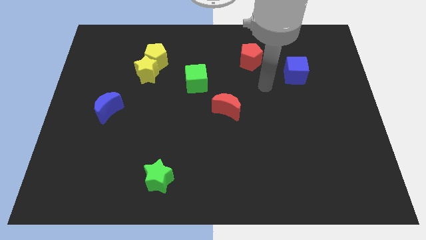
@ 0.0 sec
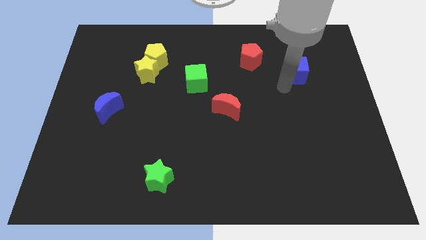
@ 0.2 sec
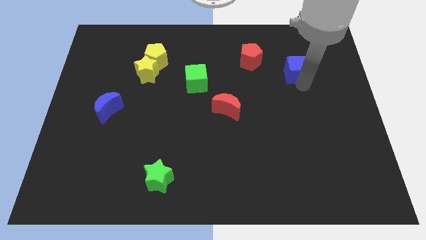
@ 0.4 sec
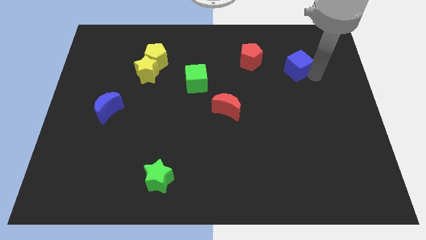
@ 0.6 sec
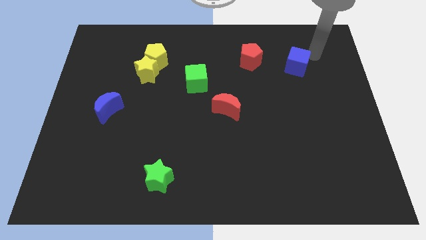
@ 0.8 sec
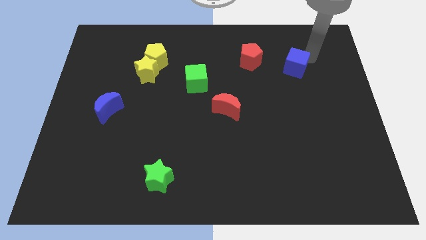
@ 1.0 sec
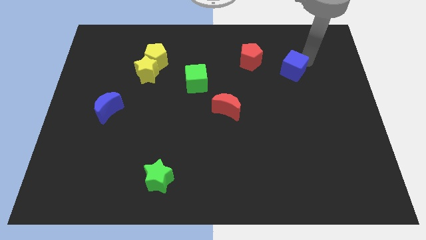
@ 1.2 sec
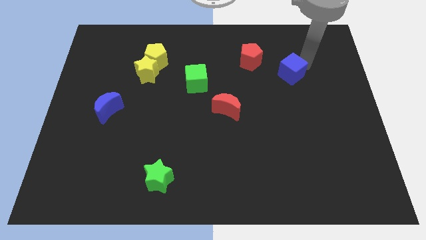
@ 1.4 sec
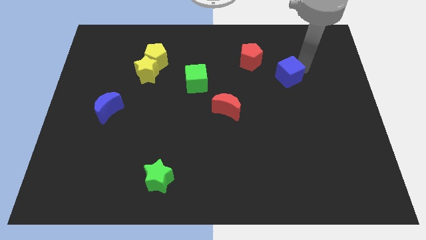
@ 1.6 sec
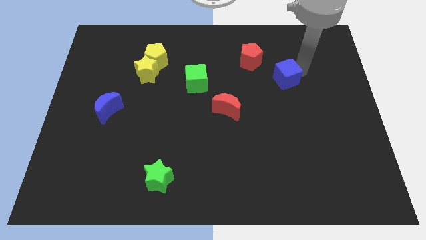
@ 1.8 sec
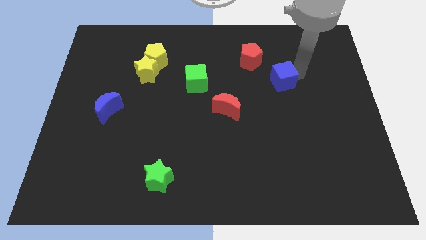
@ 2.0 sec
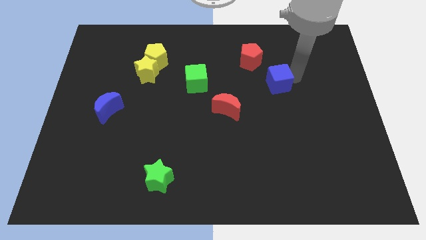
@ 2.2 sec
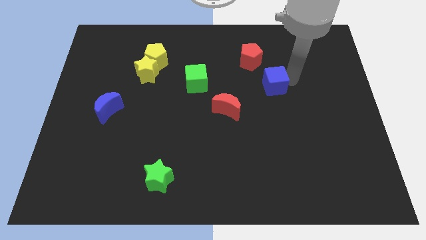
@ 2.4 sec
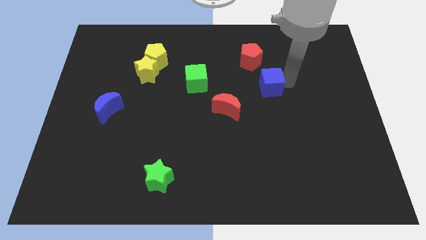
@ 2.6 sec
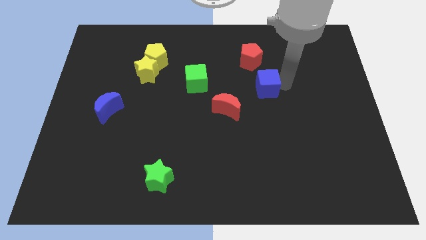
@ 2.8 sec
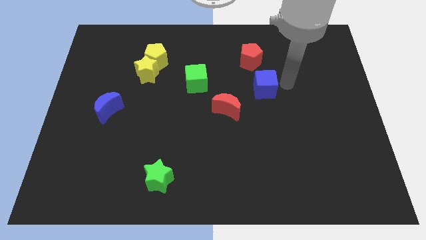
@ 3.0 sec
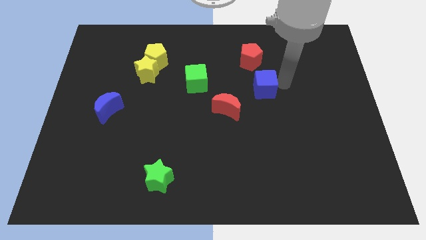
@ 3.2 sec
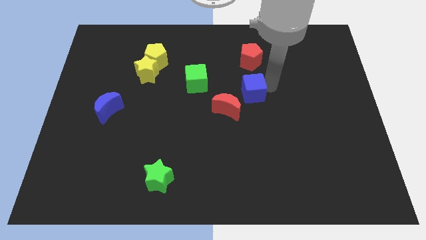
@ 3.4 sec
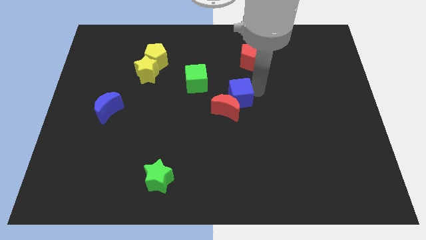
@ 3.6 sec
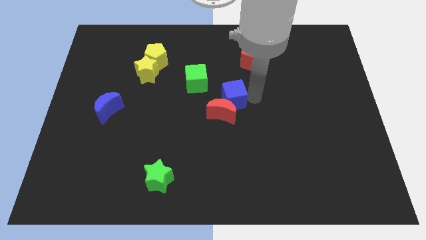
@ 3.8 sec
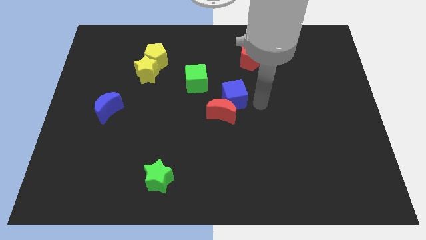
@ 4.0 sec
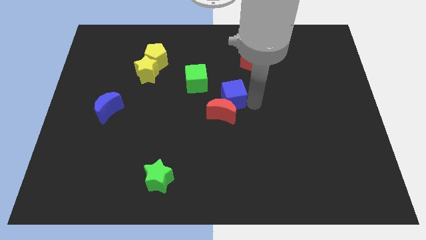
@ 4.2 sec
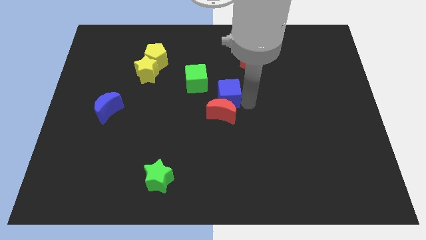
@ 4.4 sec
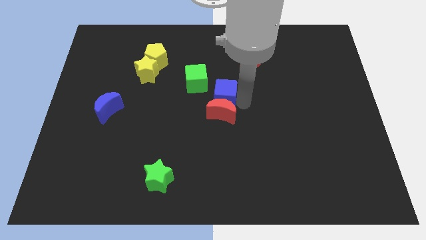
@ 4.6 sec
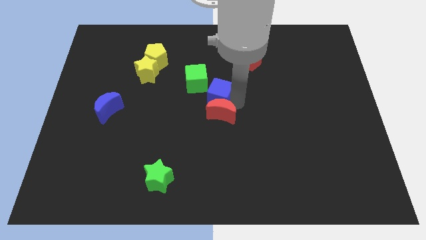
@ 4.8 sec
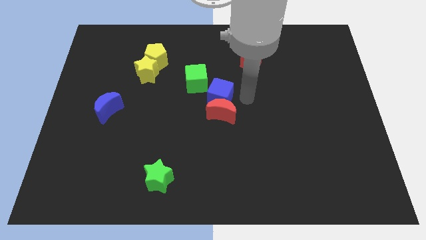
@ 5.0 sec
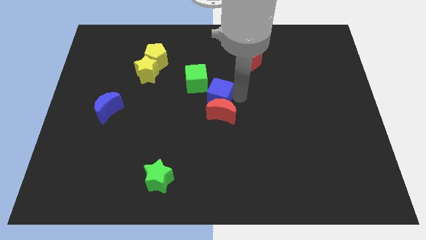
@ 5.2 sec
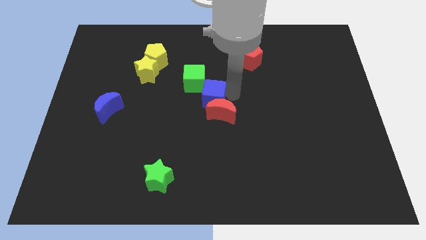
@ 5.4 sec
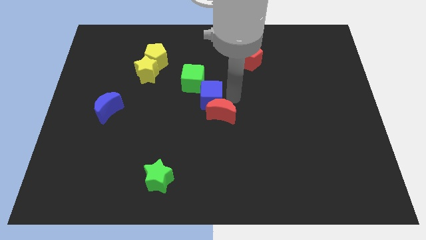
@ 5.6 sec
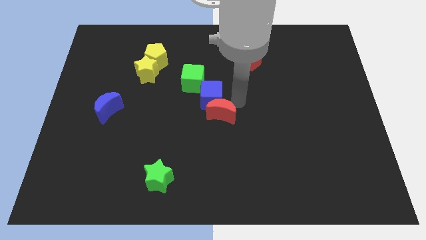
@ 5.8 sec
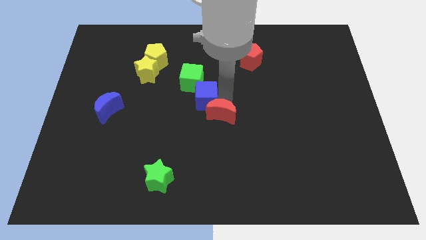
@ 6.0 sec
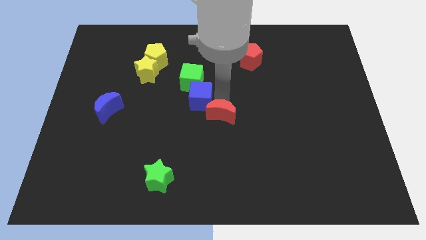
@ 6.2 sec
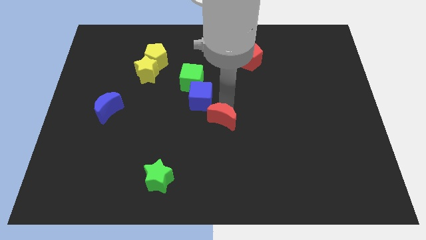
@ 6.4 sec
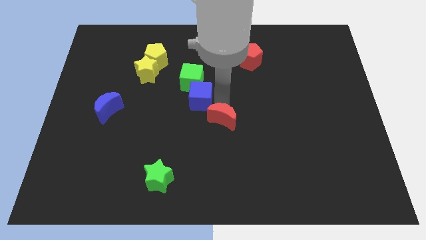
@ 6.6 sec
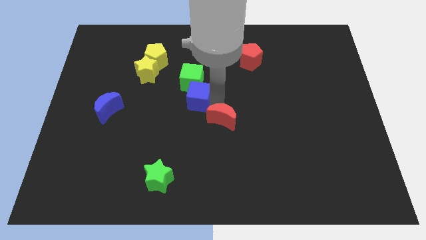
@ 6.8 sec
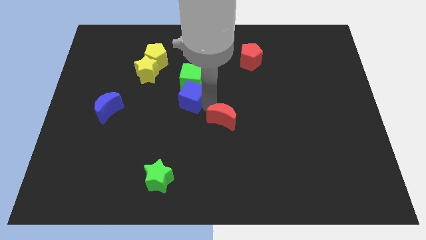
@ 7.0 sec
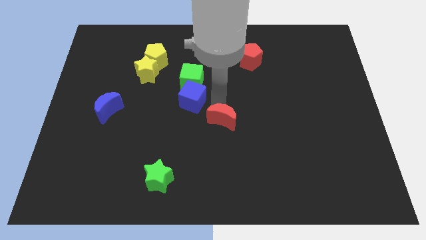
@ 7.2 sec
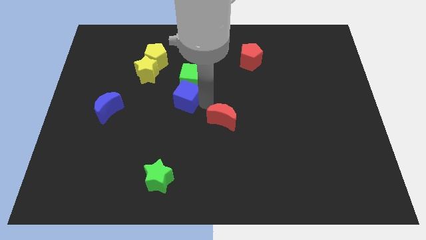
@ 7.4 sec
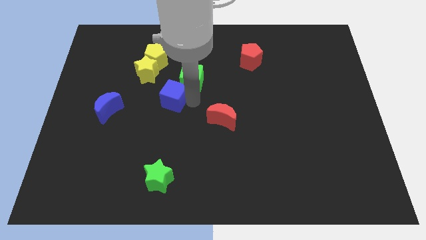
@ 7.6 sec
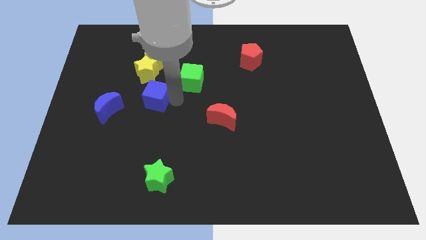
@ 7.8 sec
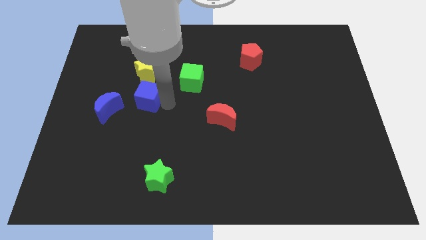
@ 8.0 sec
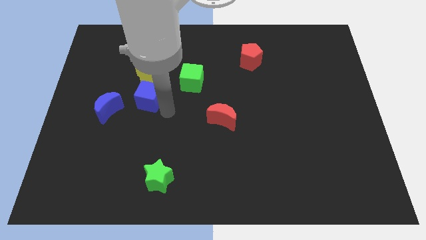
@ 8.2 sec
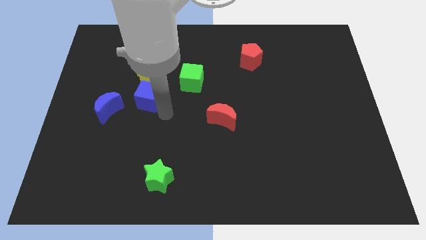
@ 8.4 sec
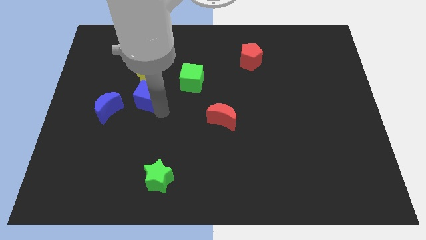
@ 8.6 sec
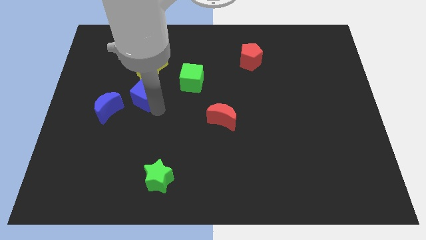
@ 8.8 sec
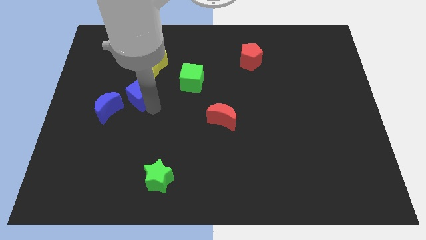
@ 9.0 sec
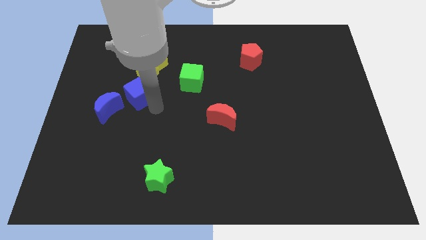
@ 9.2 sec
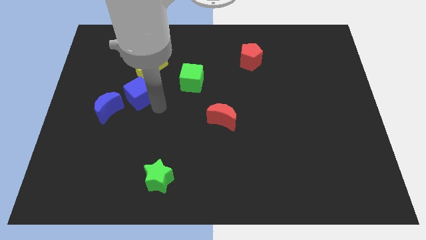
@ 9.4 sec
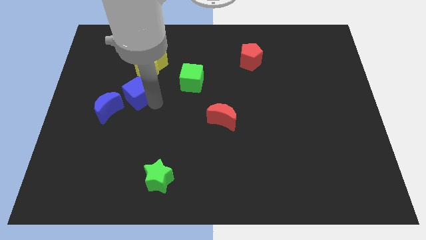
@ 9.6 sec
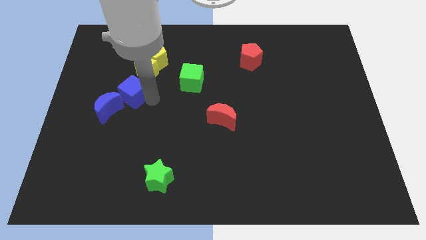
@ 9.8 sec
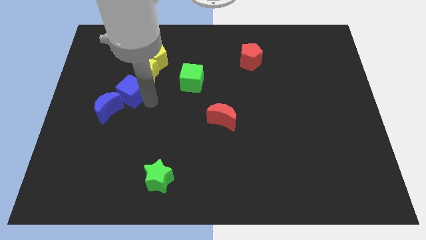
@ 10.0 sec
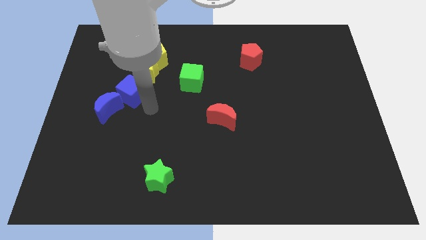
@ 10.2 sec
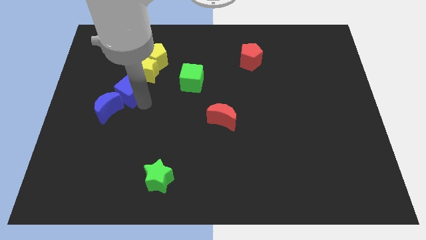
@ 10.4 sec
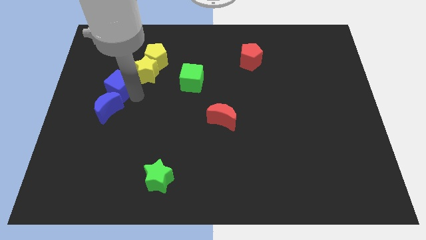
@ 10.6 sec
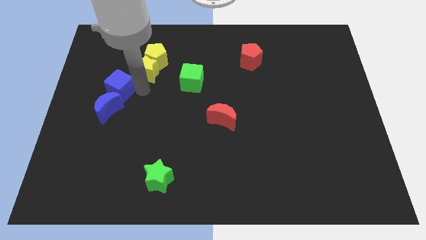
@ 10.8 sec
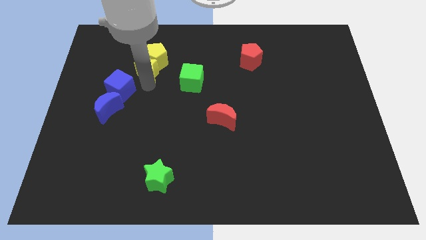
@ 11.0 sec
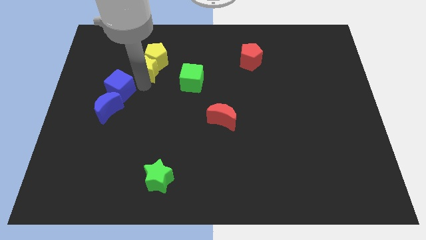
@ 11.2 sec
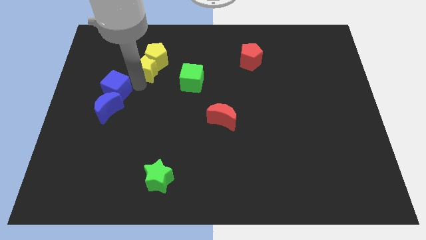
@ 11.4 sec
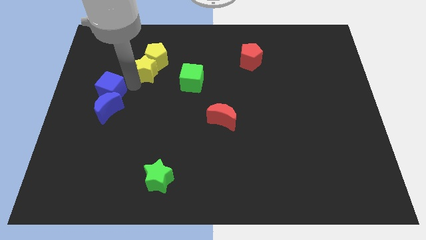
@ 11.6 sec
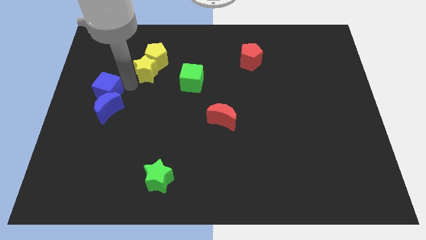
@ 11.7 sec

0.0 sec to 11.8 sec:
push the blue cube to the left side of the board

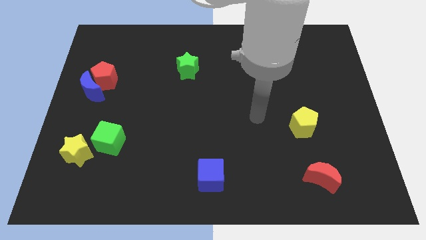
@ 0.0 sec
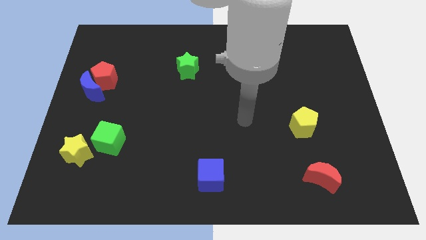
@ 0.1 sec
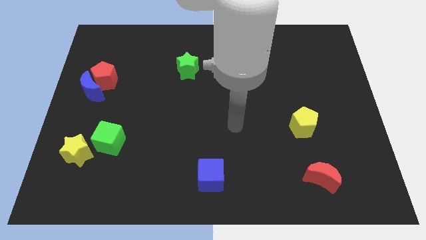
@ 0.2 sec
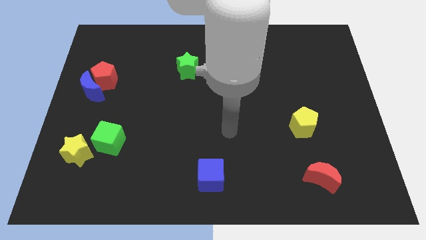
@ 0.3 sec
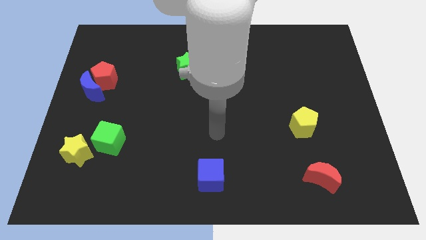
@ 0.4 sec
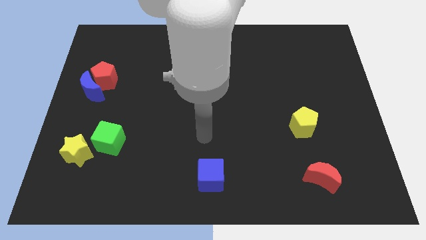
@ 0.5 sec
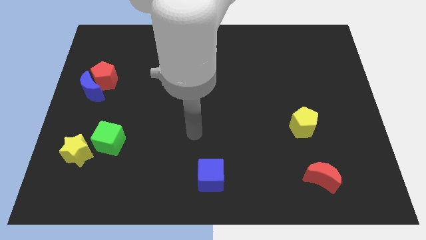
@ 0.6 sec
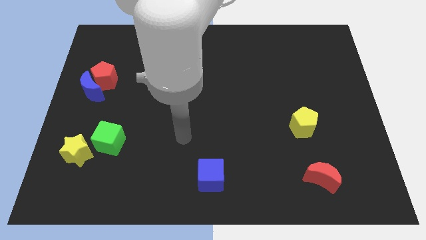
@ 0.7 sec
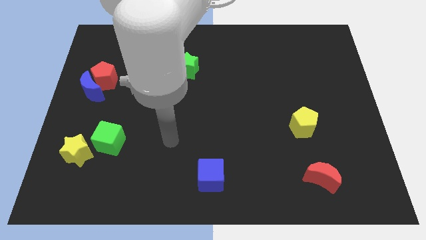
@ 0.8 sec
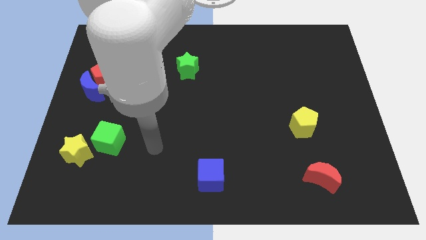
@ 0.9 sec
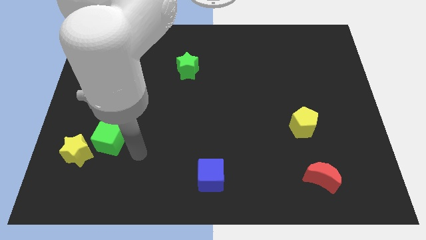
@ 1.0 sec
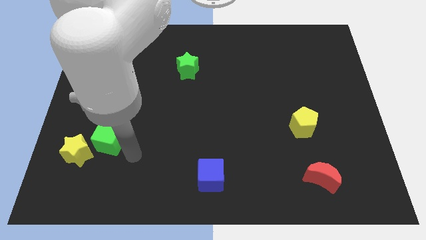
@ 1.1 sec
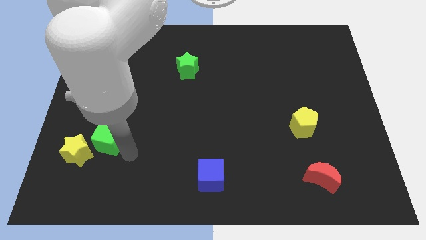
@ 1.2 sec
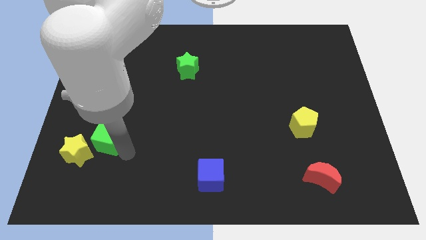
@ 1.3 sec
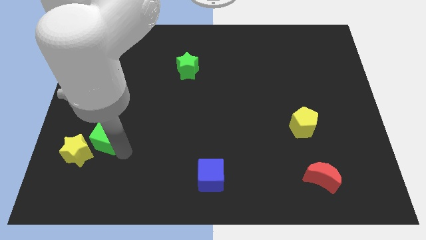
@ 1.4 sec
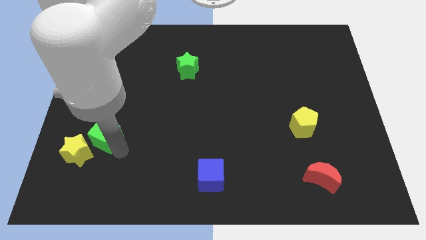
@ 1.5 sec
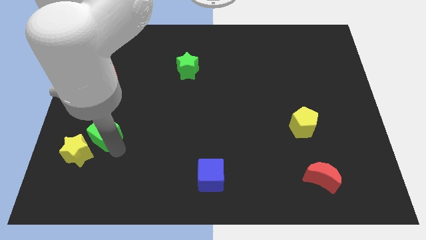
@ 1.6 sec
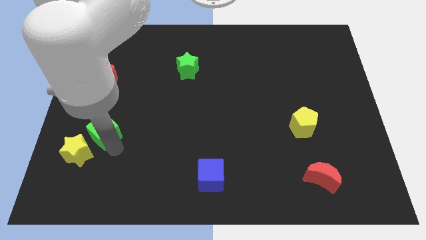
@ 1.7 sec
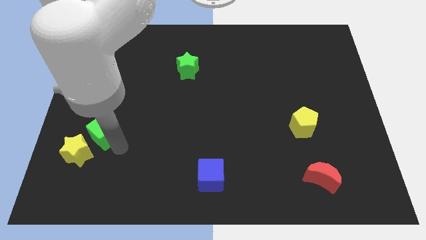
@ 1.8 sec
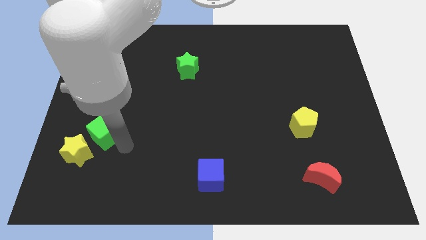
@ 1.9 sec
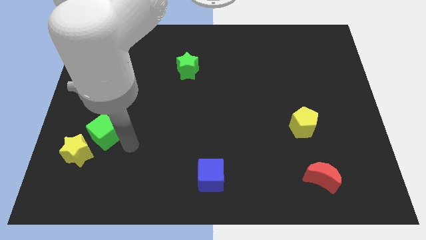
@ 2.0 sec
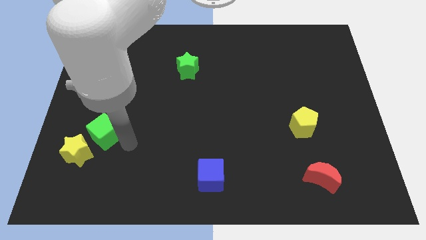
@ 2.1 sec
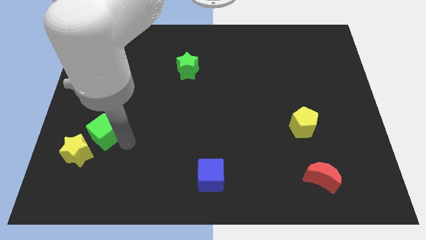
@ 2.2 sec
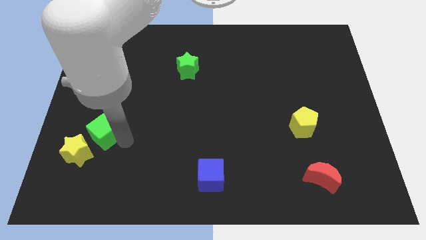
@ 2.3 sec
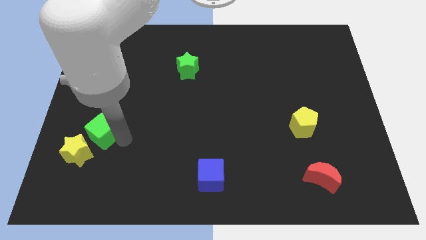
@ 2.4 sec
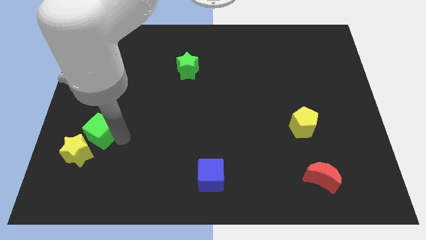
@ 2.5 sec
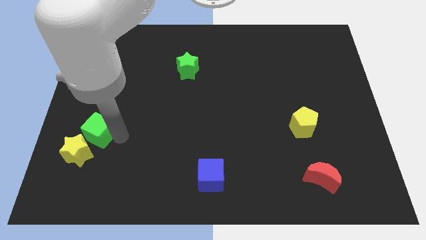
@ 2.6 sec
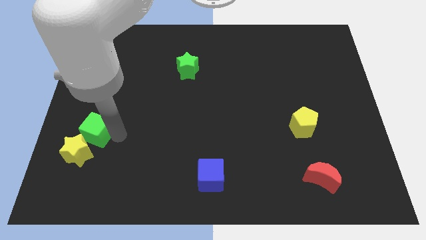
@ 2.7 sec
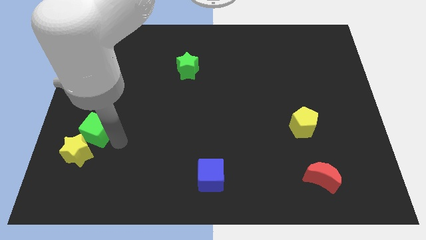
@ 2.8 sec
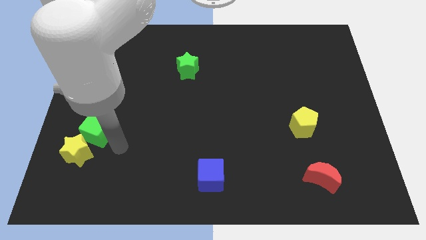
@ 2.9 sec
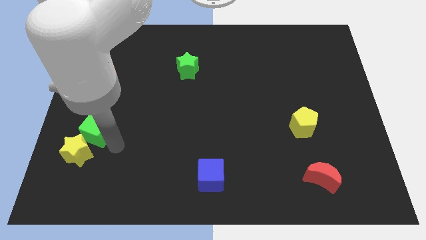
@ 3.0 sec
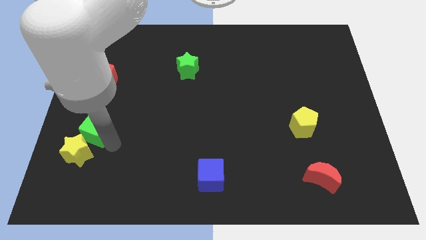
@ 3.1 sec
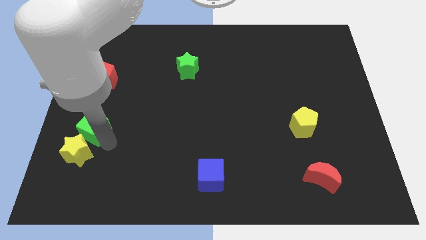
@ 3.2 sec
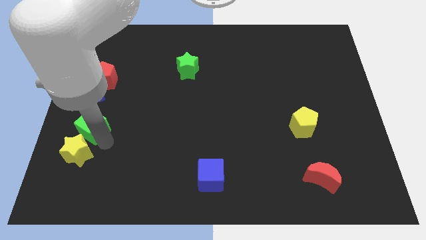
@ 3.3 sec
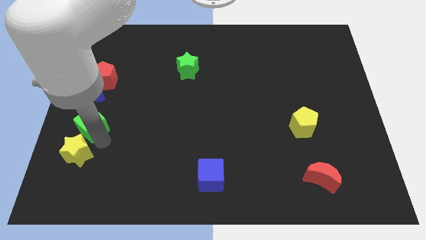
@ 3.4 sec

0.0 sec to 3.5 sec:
push the green cube to the center left
